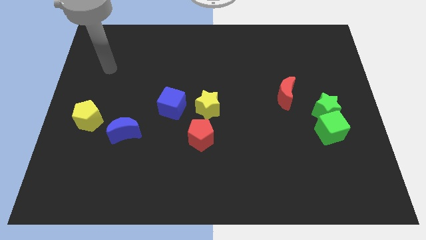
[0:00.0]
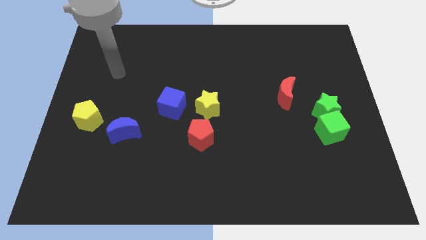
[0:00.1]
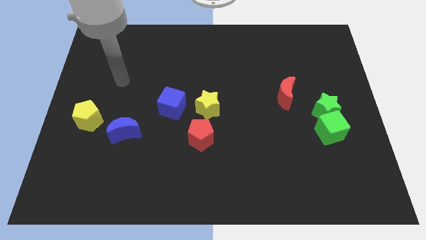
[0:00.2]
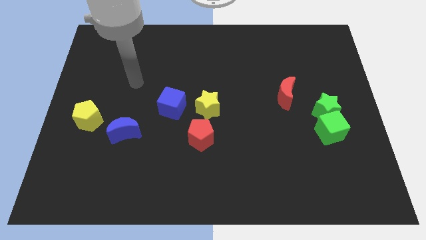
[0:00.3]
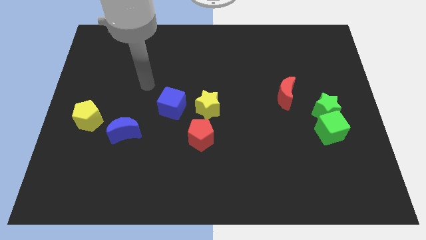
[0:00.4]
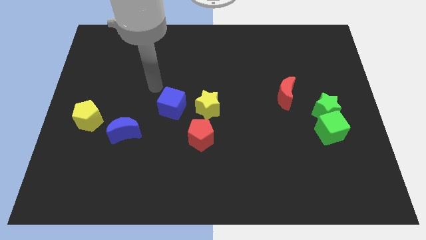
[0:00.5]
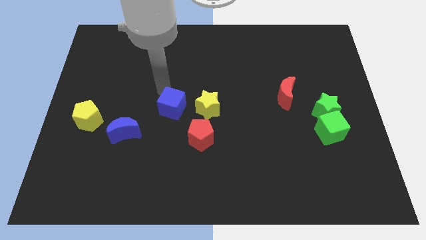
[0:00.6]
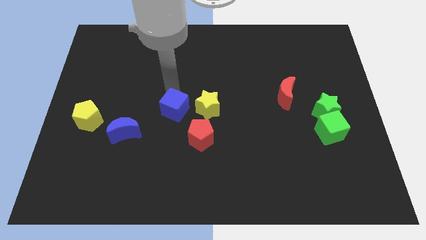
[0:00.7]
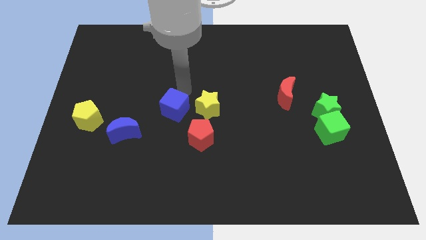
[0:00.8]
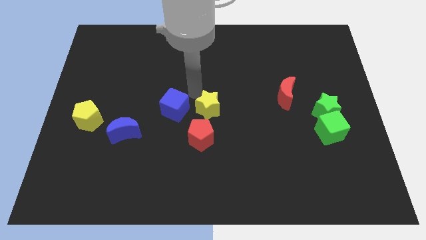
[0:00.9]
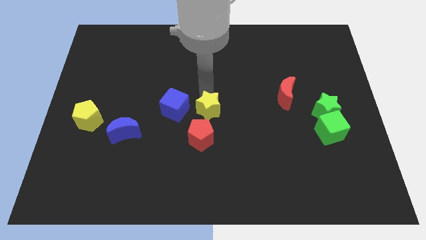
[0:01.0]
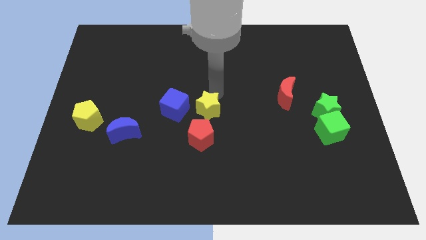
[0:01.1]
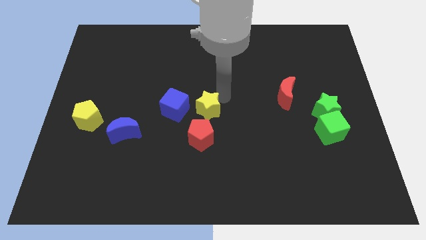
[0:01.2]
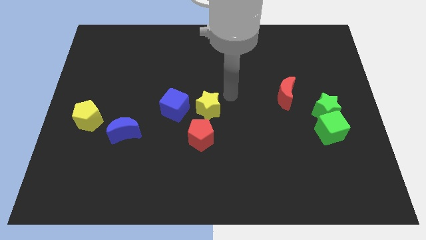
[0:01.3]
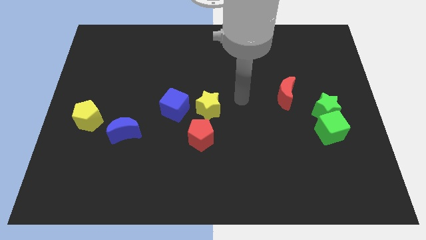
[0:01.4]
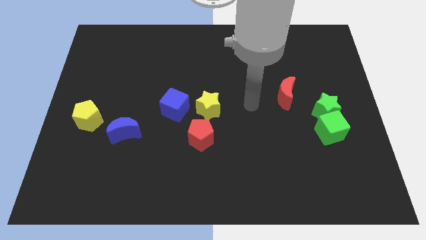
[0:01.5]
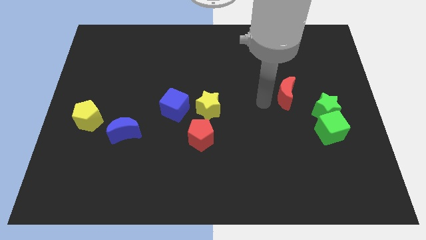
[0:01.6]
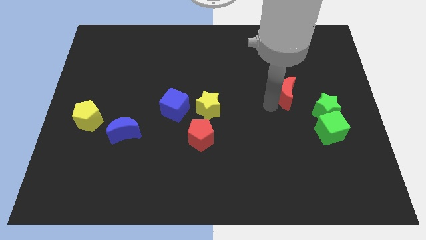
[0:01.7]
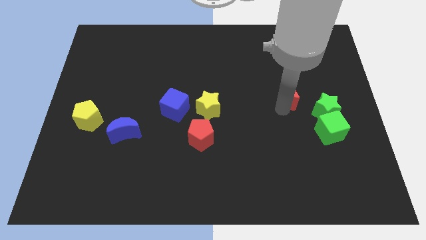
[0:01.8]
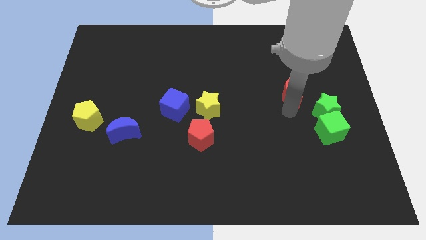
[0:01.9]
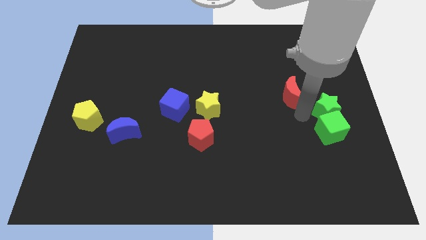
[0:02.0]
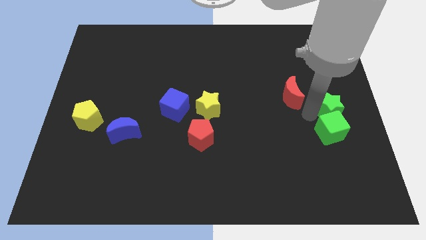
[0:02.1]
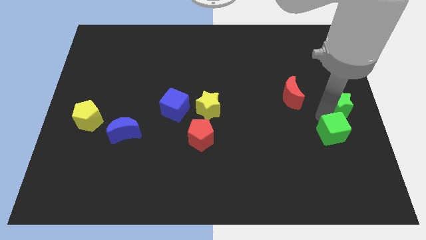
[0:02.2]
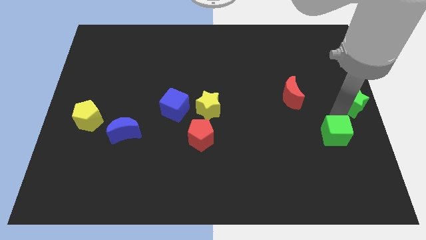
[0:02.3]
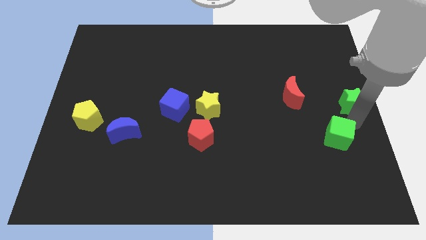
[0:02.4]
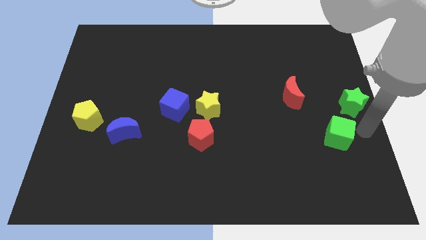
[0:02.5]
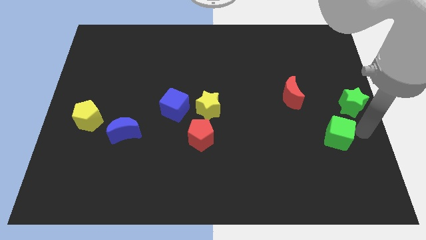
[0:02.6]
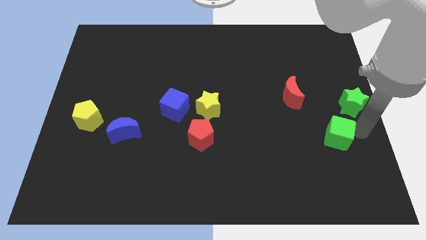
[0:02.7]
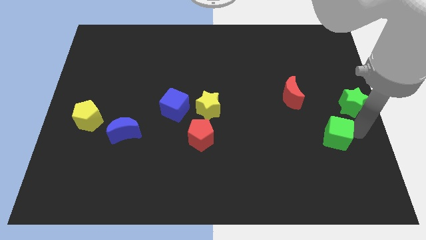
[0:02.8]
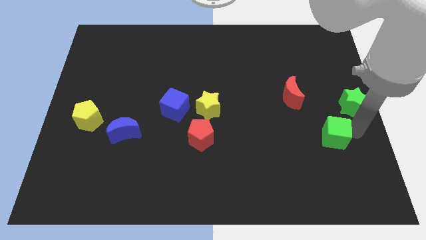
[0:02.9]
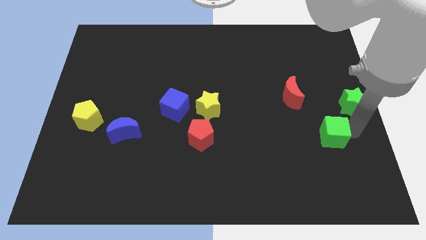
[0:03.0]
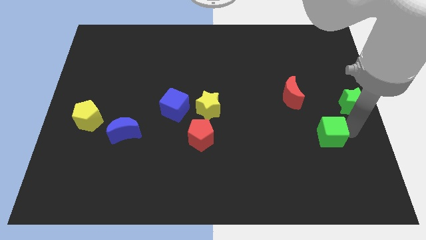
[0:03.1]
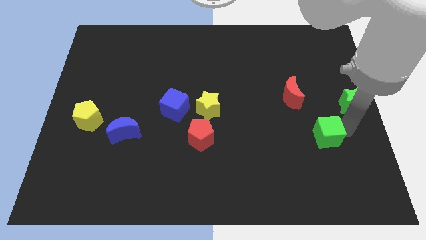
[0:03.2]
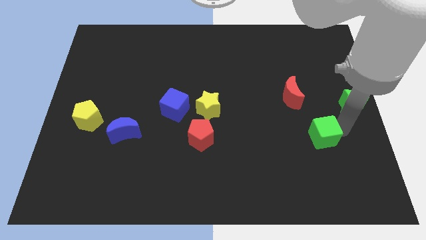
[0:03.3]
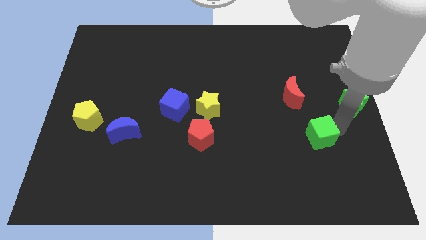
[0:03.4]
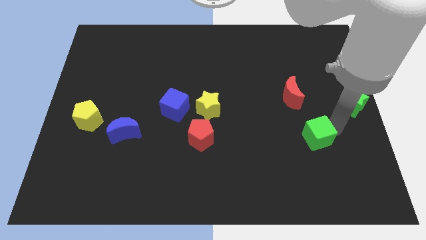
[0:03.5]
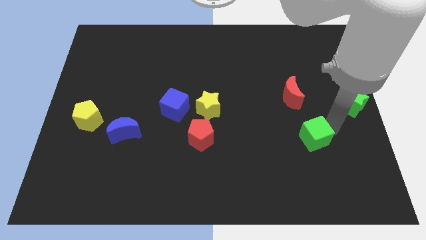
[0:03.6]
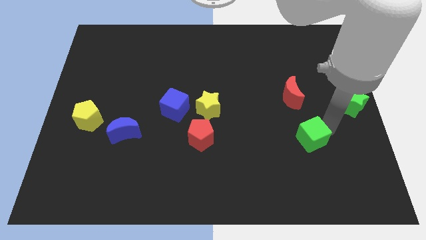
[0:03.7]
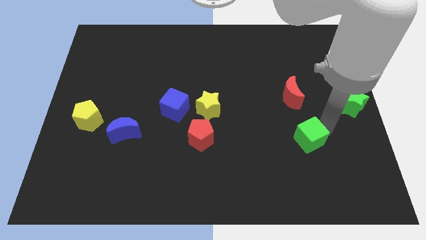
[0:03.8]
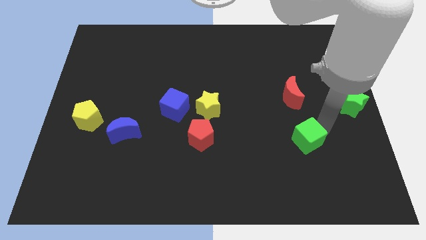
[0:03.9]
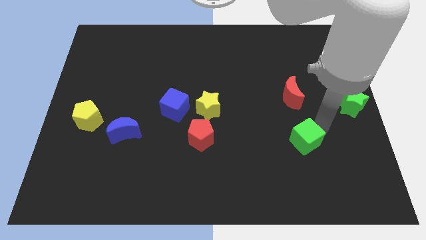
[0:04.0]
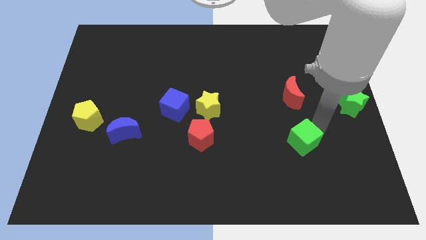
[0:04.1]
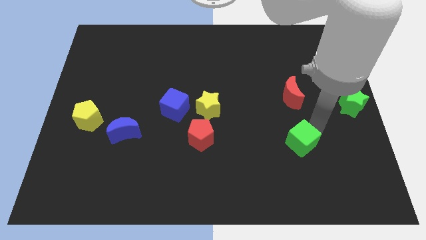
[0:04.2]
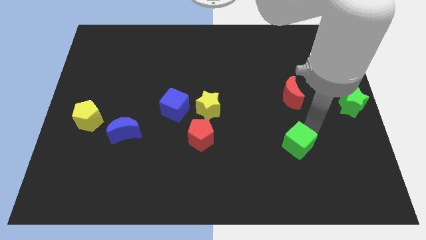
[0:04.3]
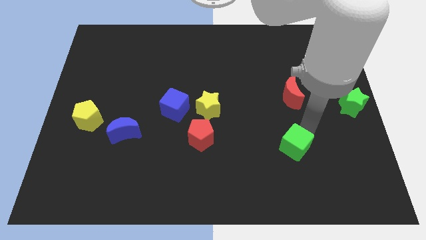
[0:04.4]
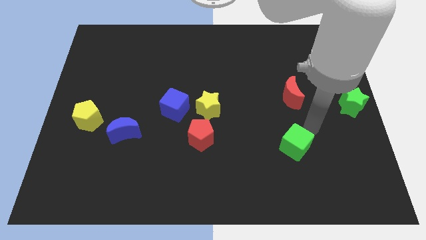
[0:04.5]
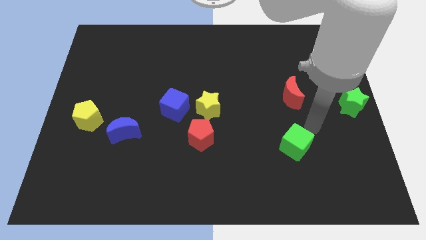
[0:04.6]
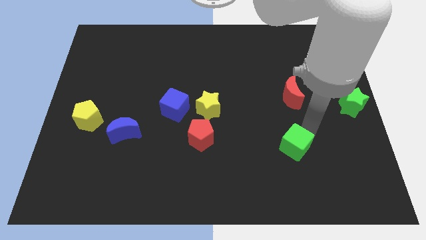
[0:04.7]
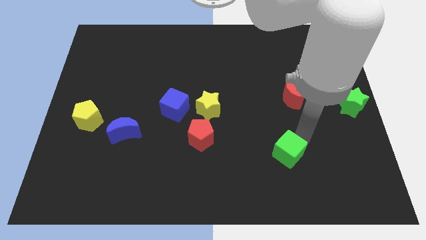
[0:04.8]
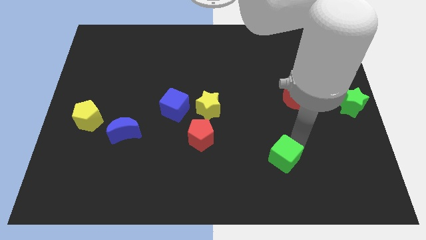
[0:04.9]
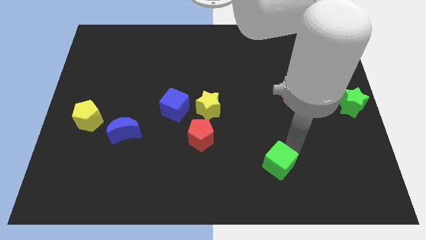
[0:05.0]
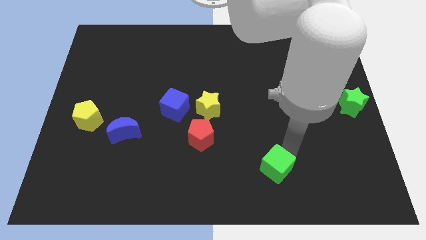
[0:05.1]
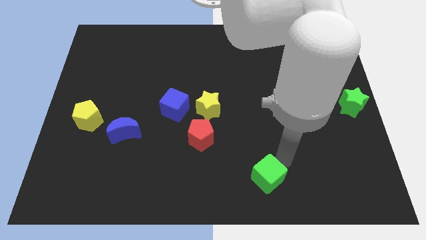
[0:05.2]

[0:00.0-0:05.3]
move the green cube to the bottom

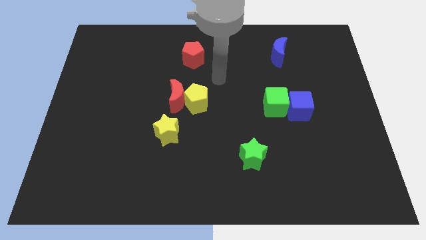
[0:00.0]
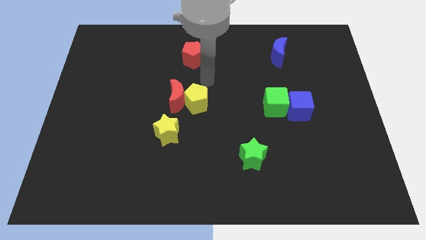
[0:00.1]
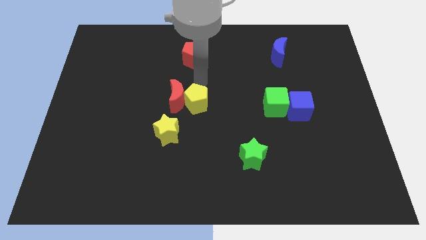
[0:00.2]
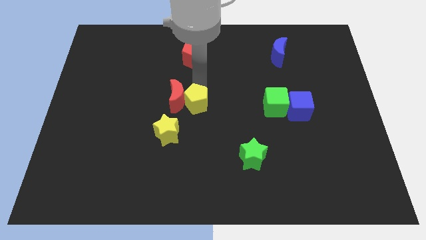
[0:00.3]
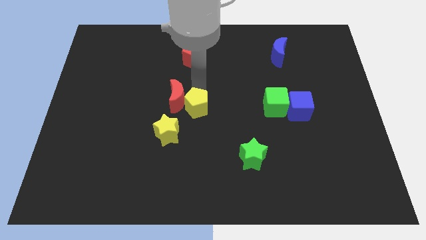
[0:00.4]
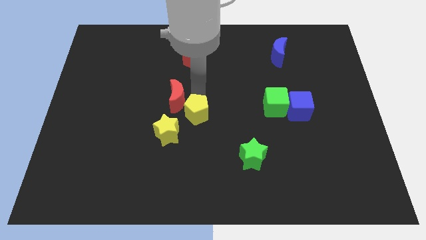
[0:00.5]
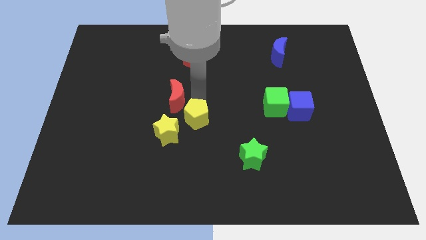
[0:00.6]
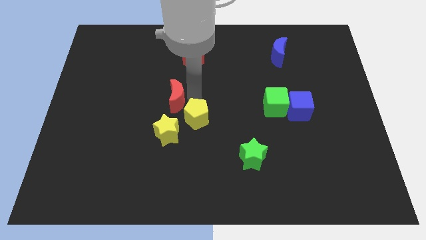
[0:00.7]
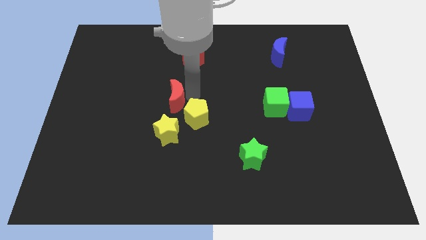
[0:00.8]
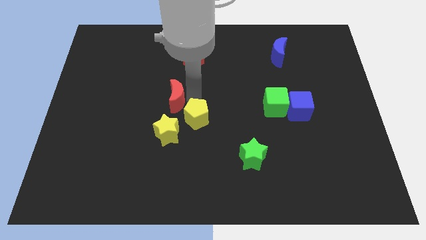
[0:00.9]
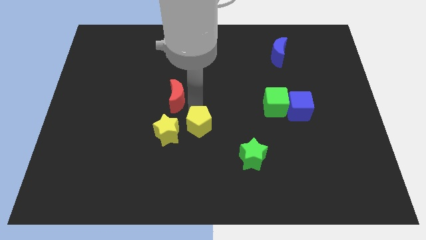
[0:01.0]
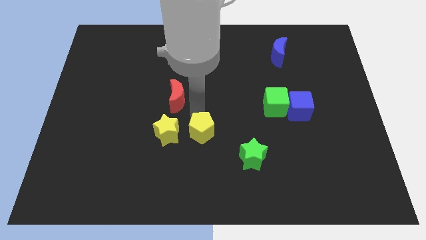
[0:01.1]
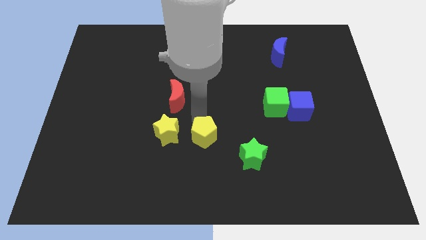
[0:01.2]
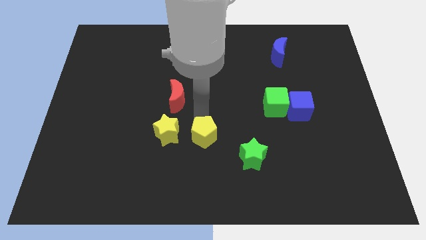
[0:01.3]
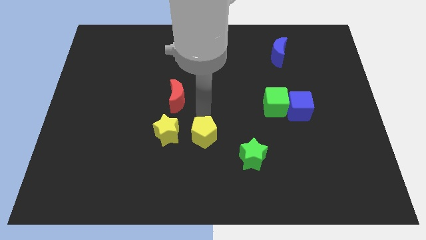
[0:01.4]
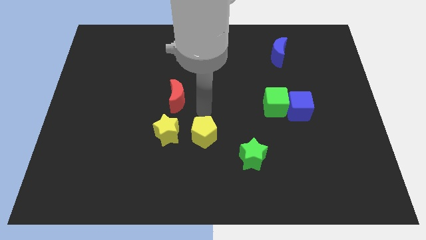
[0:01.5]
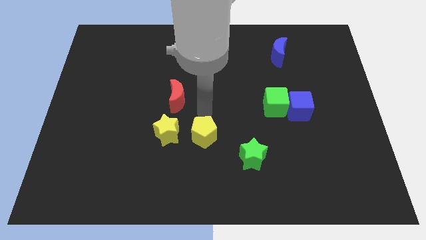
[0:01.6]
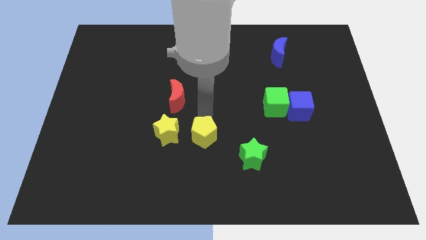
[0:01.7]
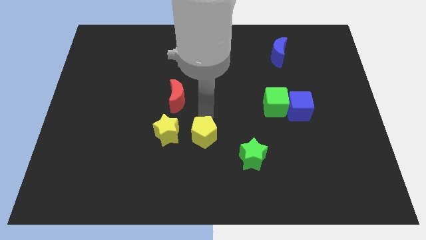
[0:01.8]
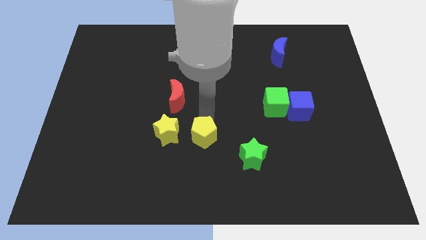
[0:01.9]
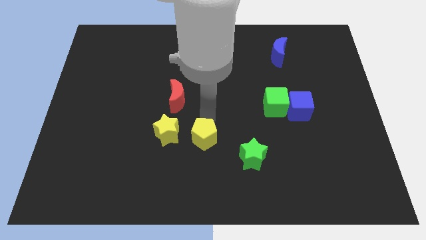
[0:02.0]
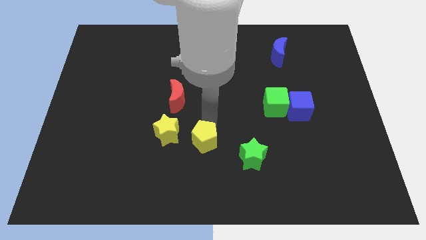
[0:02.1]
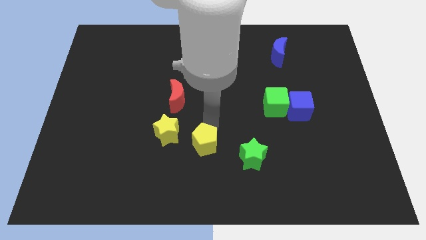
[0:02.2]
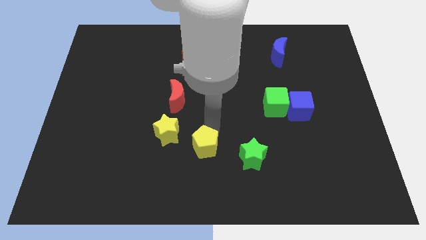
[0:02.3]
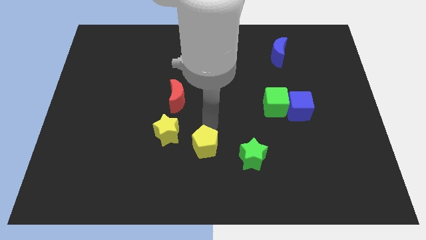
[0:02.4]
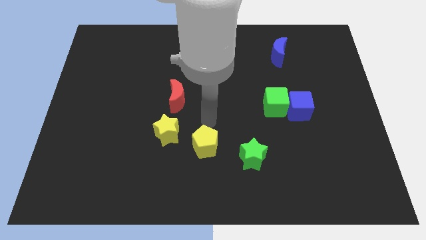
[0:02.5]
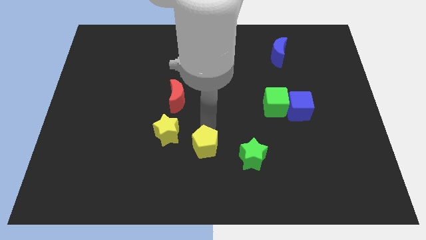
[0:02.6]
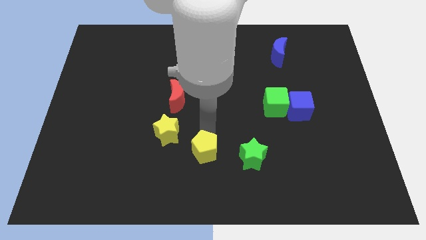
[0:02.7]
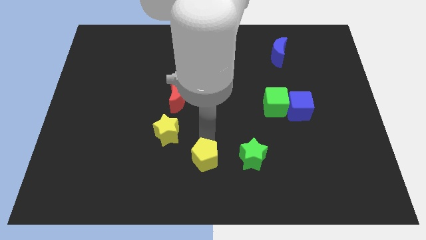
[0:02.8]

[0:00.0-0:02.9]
push the yellow pentagon to the bottom
